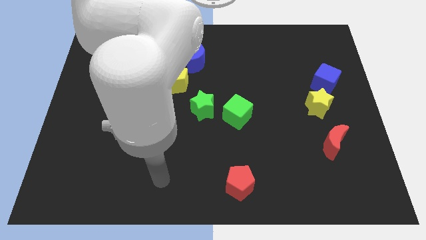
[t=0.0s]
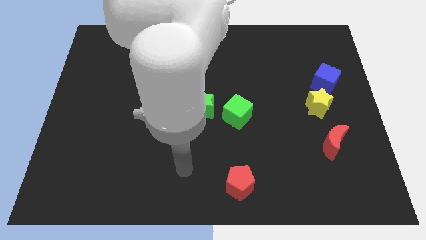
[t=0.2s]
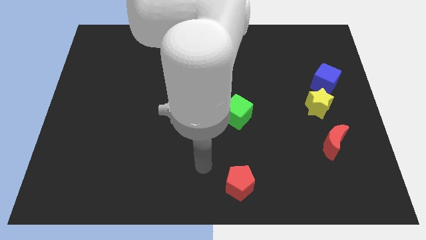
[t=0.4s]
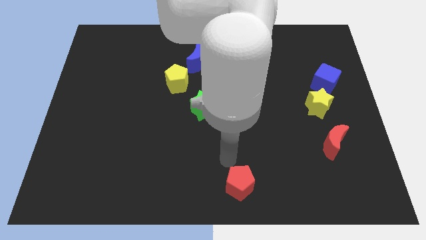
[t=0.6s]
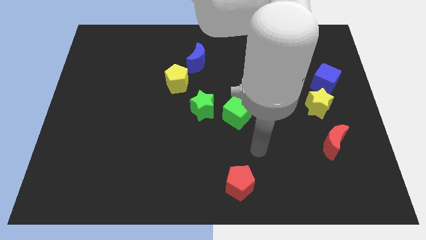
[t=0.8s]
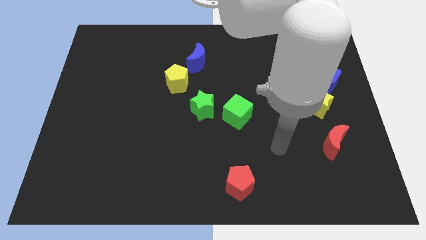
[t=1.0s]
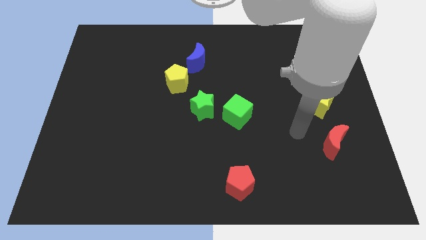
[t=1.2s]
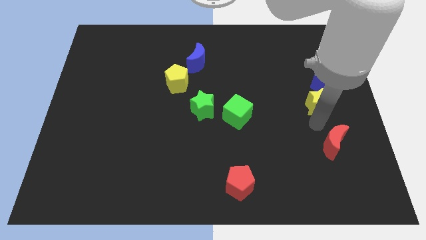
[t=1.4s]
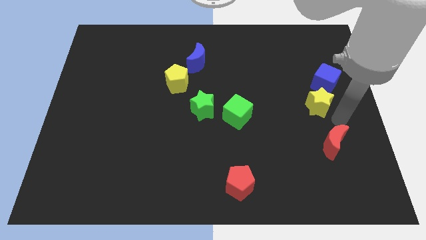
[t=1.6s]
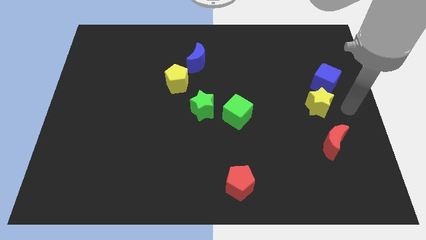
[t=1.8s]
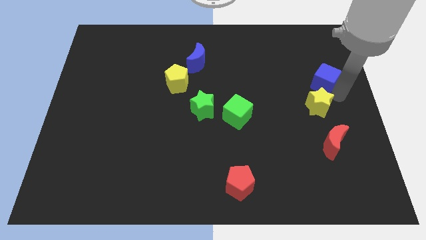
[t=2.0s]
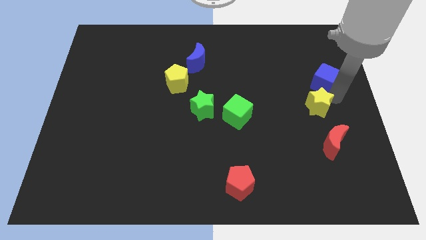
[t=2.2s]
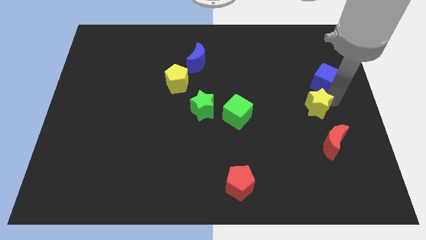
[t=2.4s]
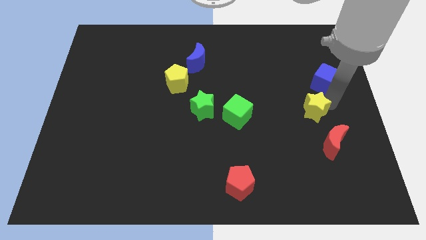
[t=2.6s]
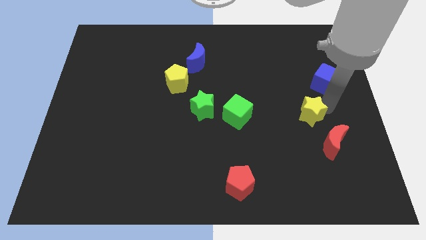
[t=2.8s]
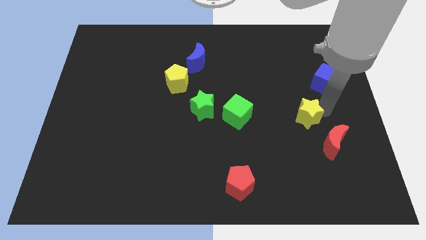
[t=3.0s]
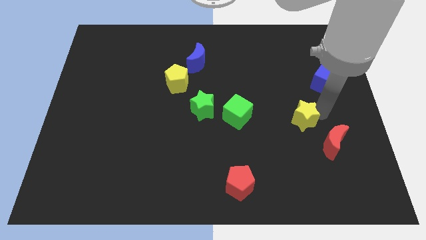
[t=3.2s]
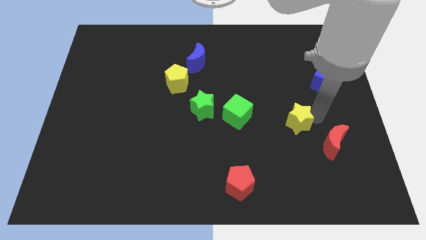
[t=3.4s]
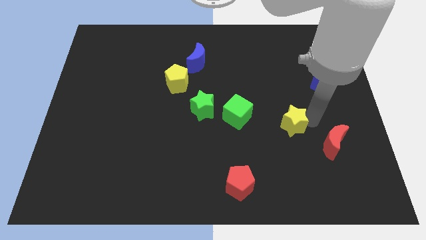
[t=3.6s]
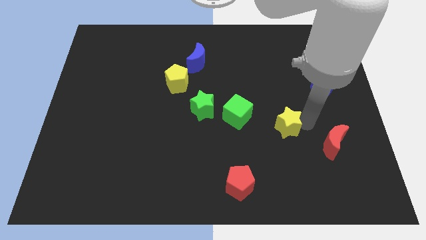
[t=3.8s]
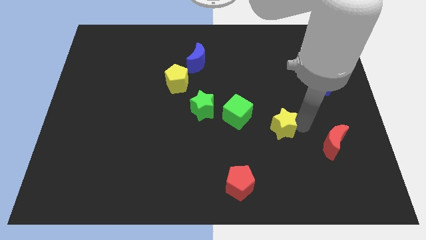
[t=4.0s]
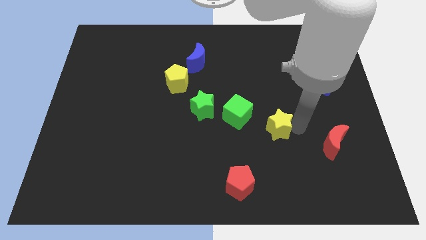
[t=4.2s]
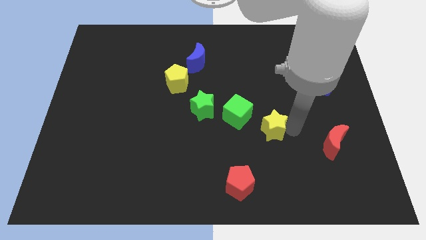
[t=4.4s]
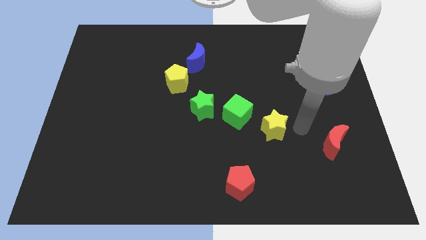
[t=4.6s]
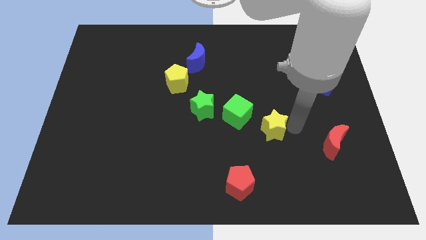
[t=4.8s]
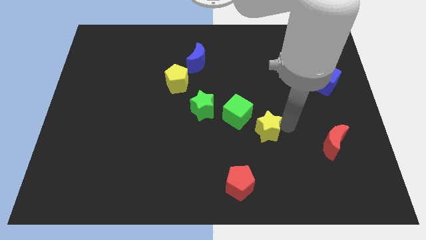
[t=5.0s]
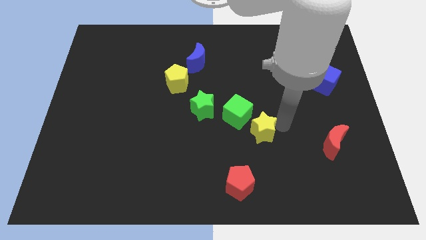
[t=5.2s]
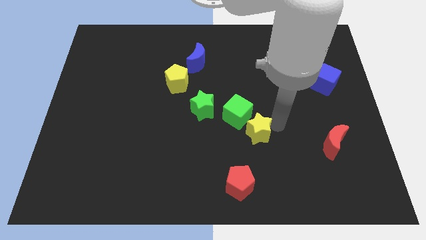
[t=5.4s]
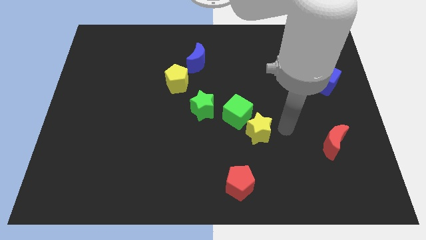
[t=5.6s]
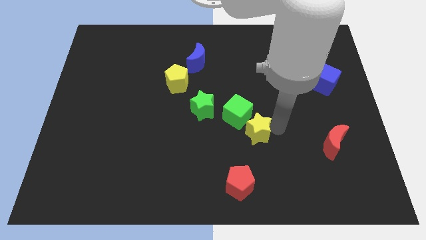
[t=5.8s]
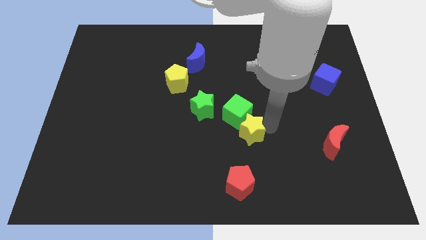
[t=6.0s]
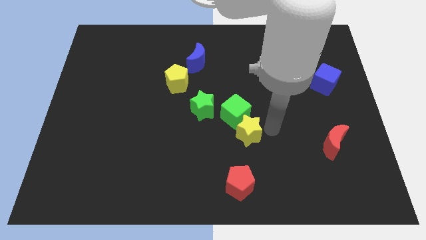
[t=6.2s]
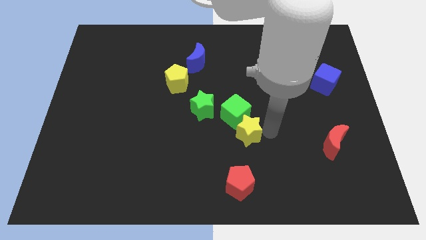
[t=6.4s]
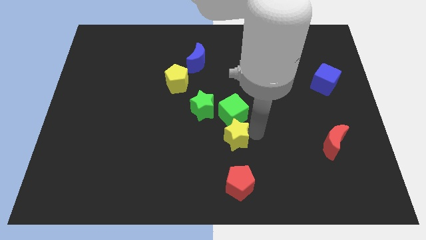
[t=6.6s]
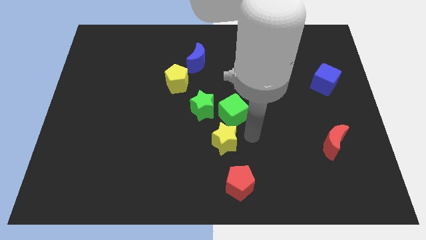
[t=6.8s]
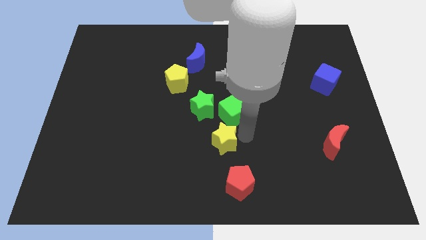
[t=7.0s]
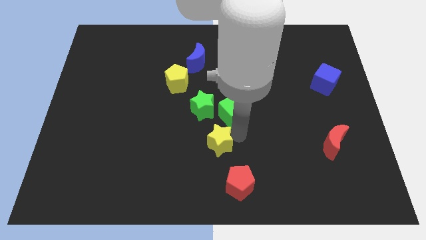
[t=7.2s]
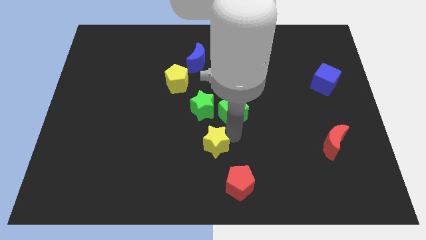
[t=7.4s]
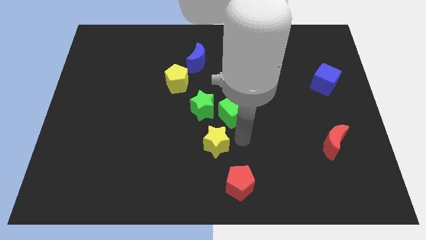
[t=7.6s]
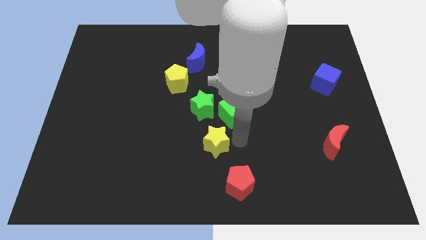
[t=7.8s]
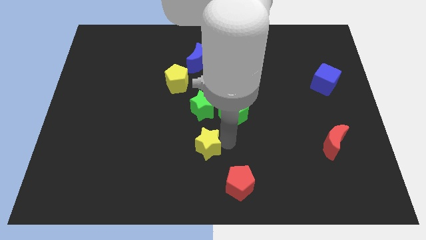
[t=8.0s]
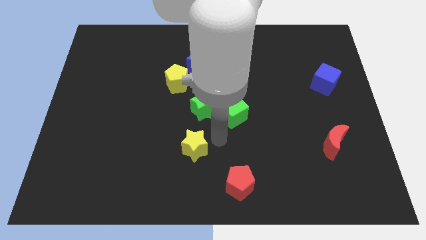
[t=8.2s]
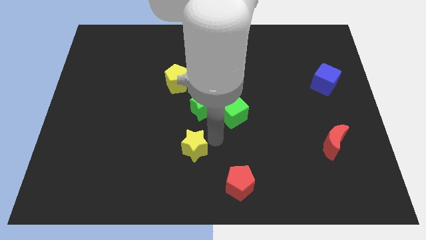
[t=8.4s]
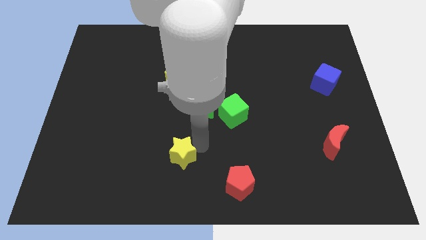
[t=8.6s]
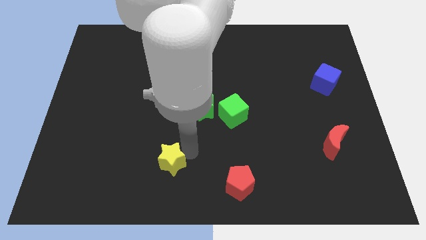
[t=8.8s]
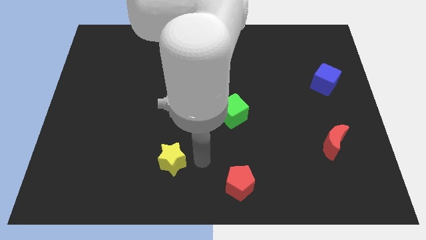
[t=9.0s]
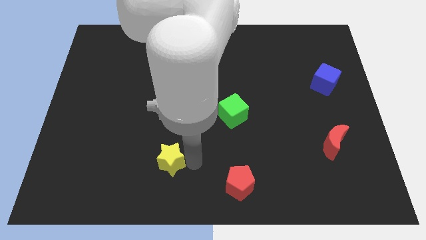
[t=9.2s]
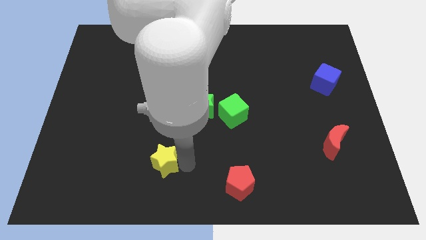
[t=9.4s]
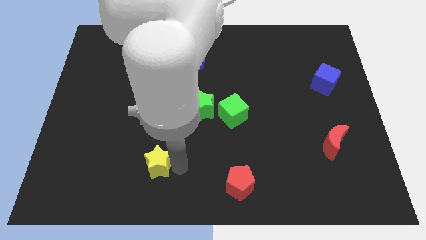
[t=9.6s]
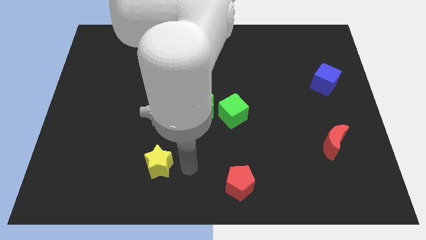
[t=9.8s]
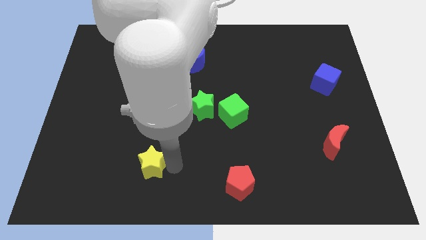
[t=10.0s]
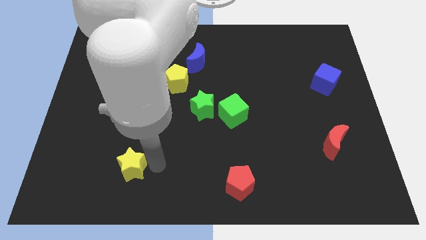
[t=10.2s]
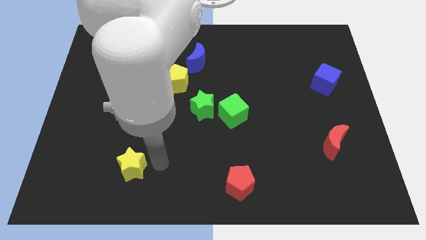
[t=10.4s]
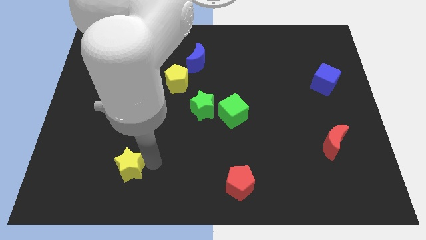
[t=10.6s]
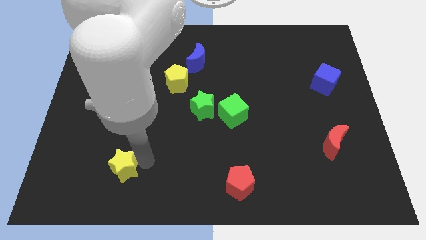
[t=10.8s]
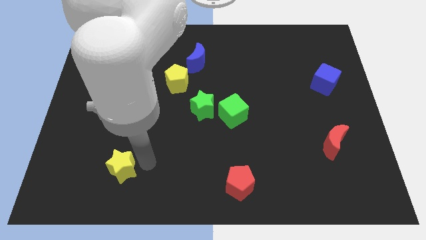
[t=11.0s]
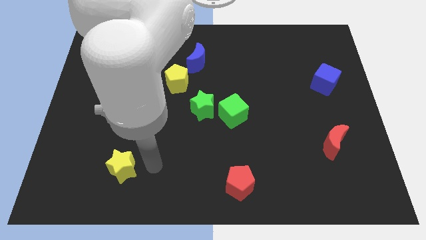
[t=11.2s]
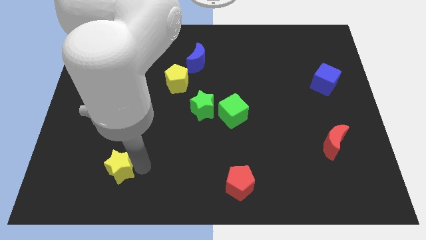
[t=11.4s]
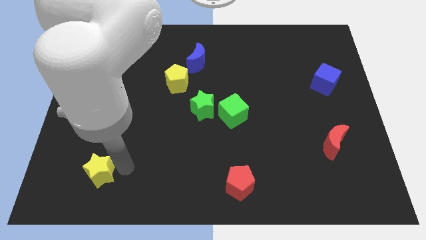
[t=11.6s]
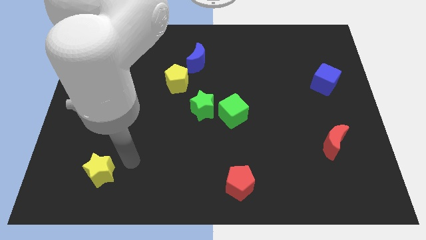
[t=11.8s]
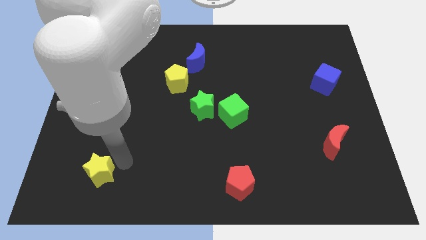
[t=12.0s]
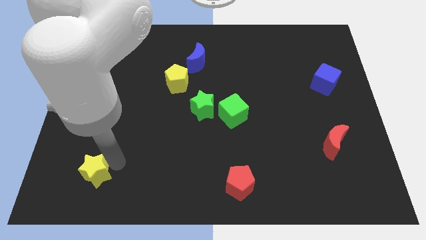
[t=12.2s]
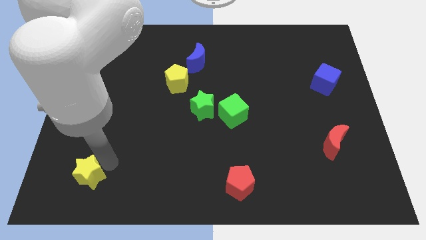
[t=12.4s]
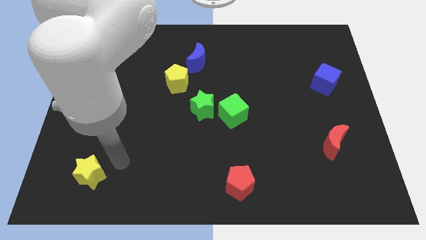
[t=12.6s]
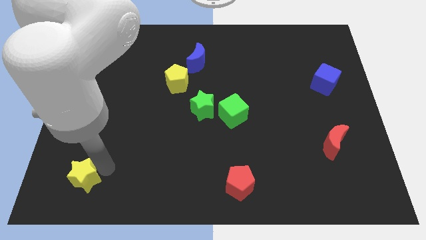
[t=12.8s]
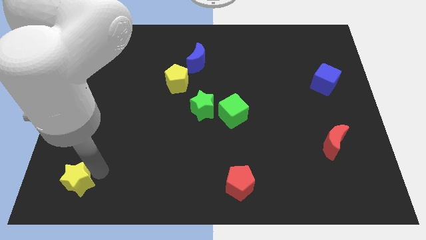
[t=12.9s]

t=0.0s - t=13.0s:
slide the yellow star to the lower left corner
